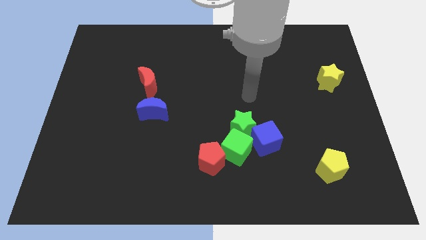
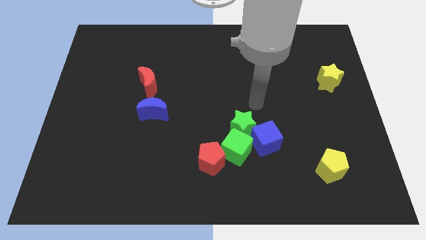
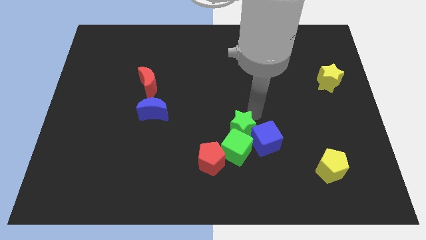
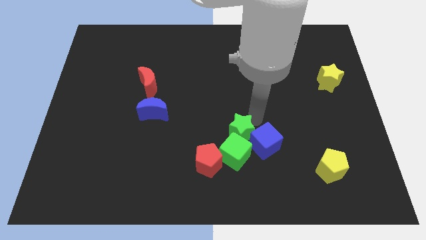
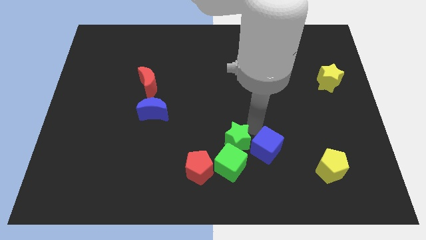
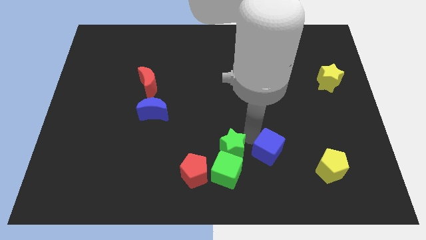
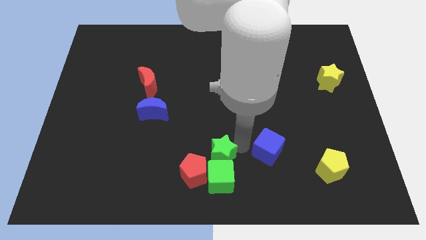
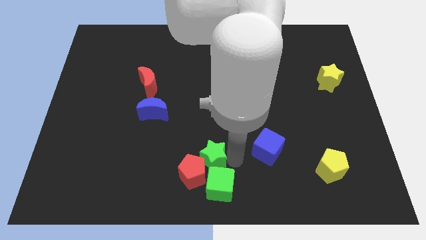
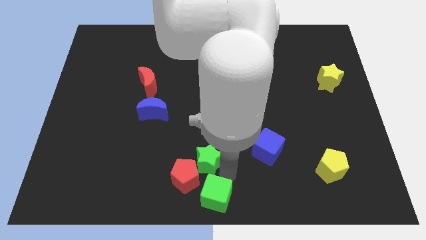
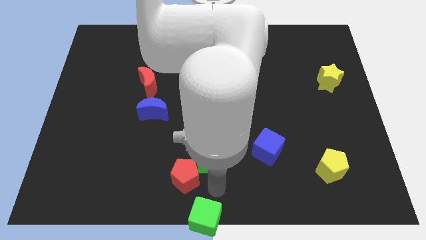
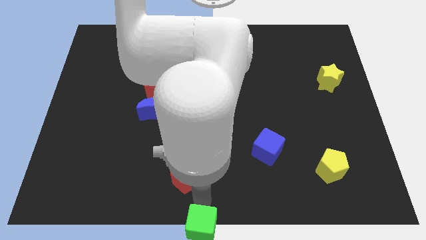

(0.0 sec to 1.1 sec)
move the red pentagon away from the green cube

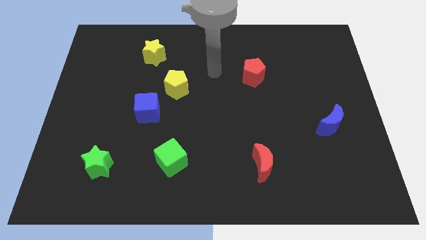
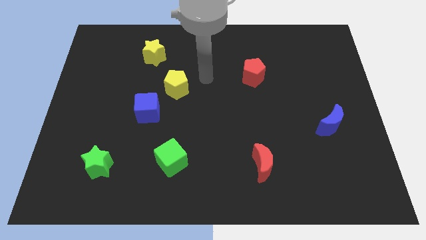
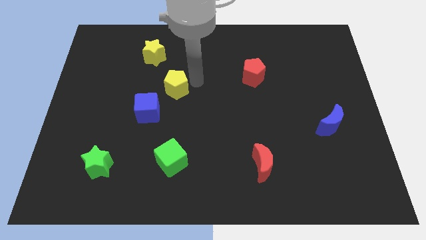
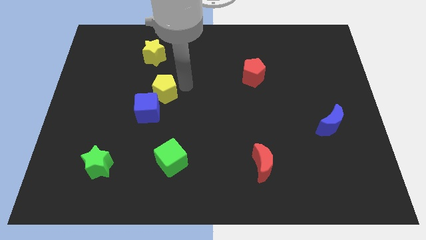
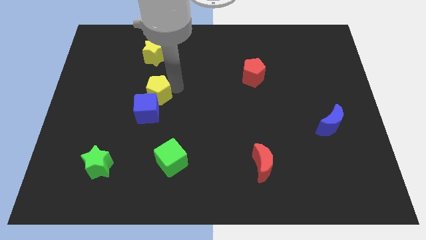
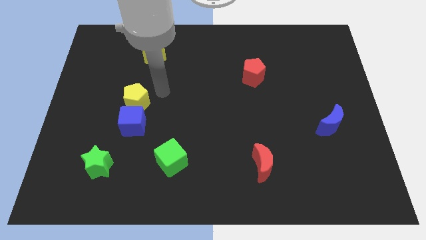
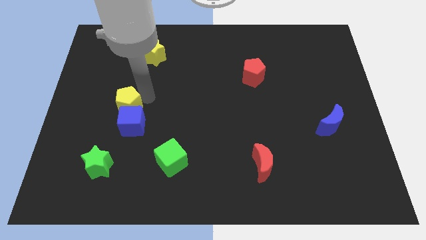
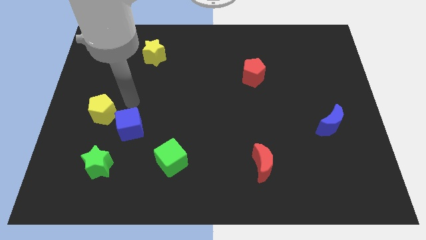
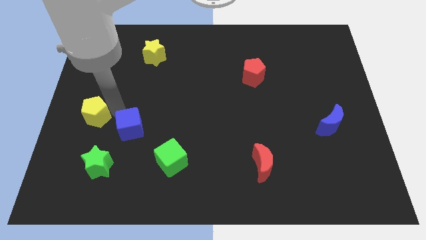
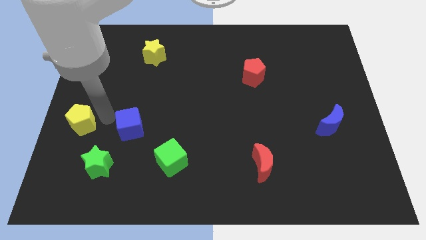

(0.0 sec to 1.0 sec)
separate the blue cube from the yellow pentagon

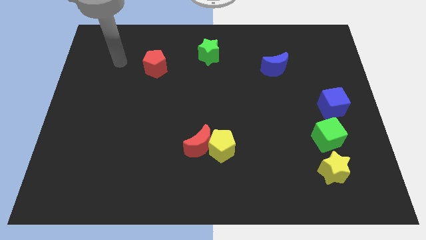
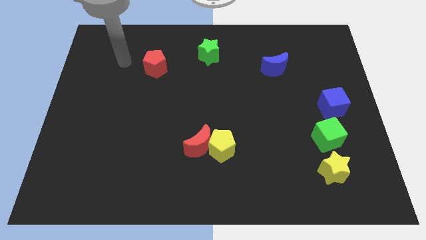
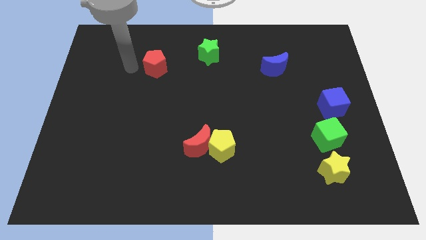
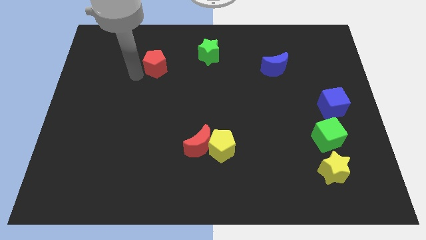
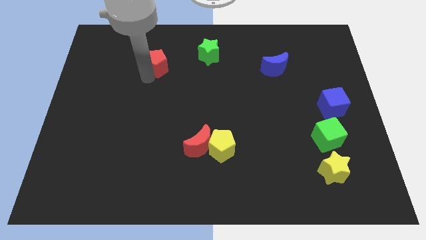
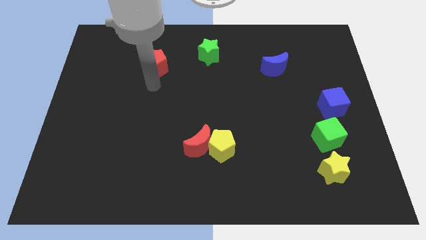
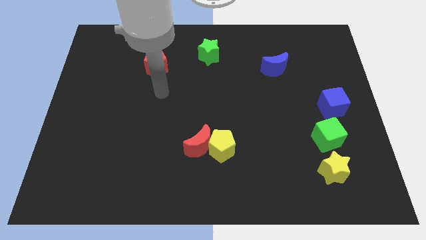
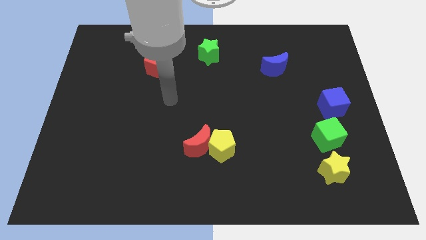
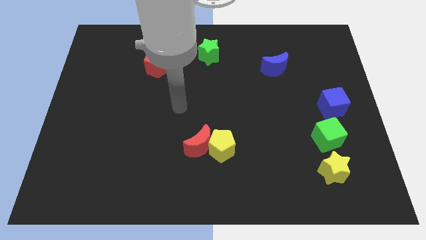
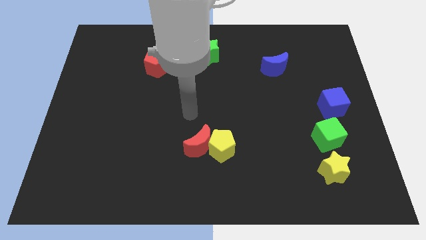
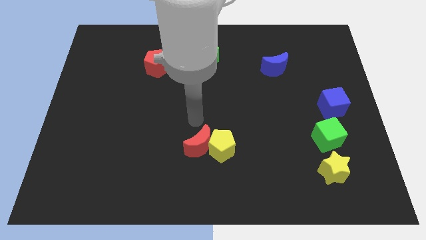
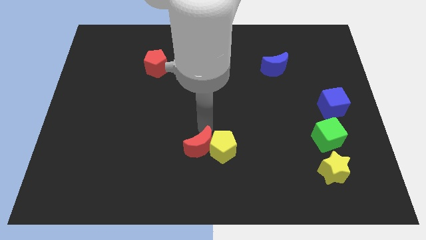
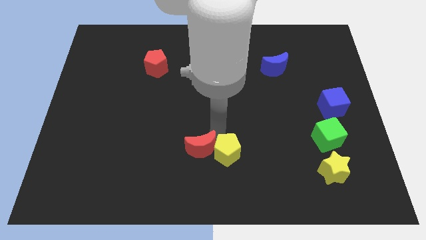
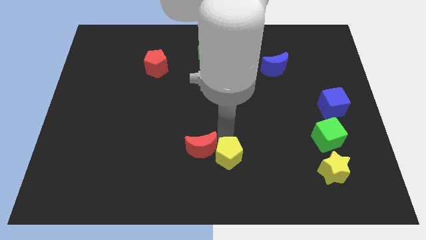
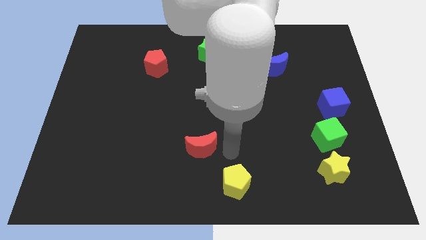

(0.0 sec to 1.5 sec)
move the red moon away from the yellow pentagon

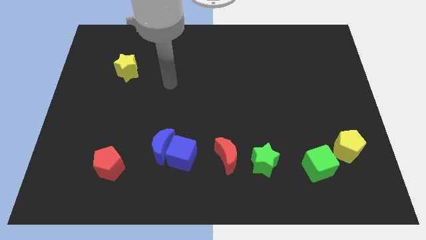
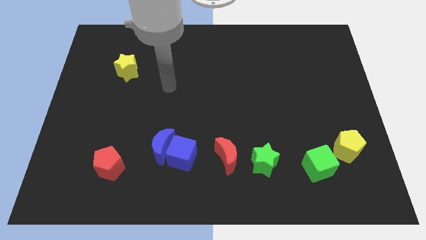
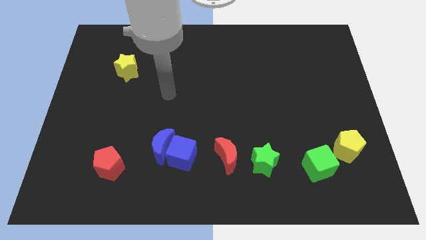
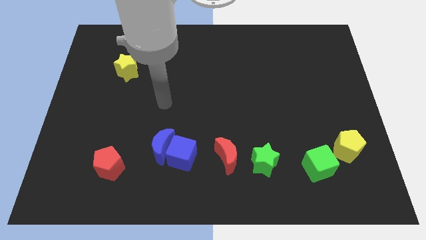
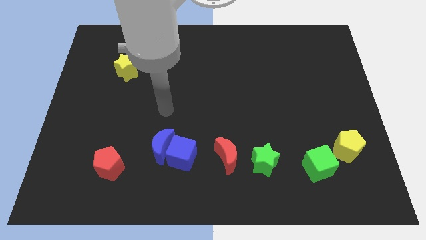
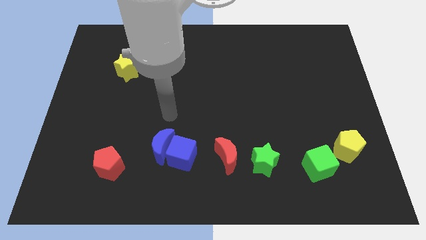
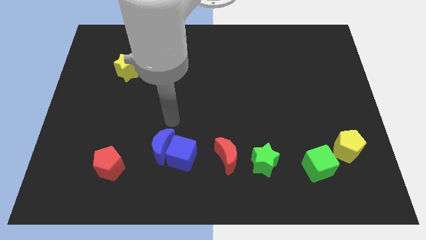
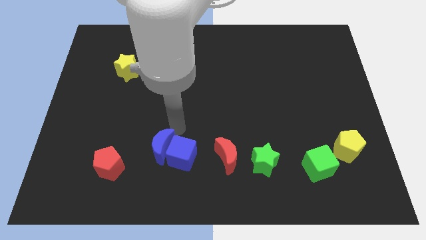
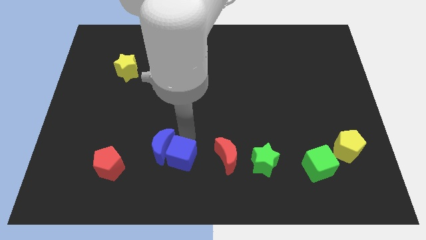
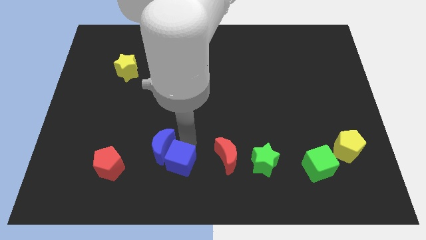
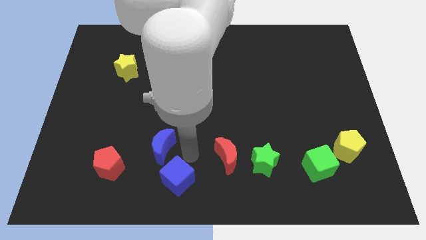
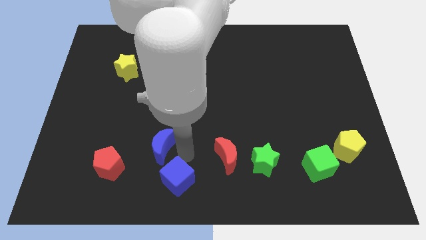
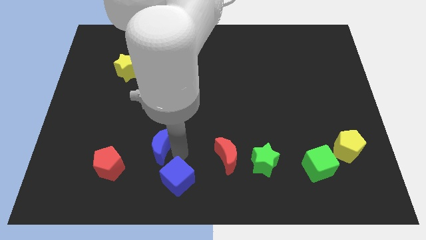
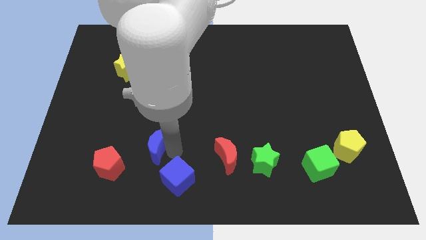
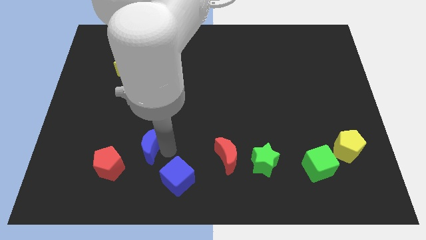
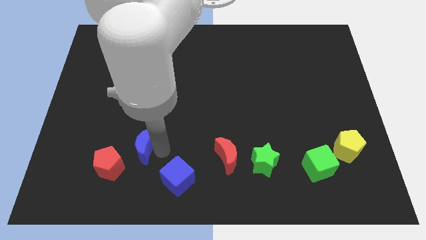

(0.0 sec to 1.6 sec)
pull the blue moon apart from the blue cube

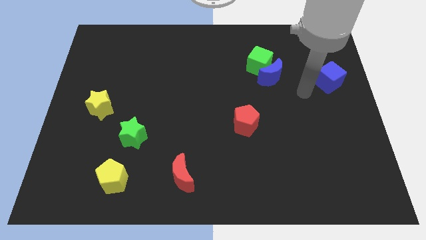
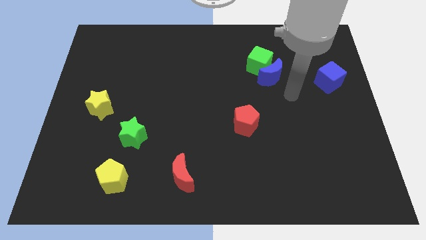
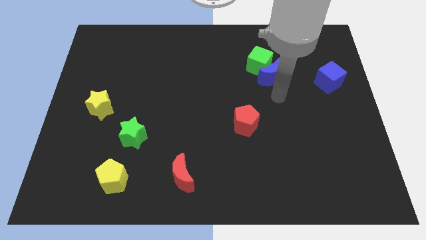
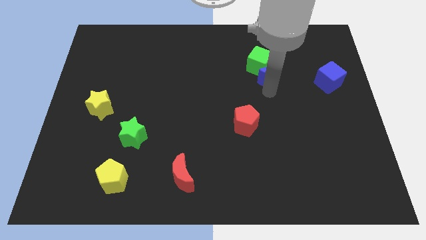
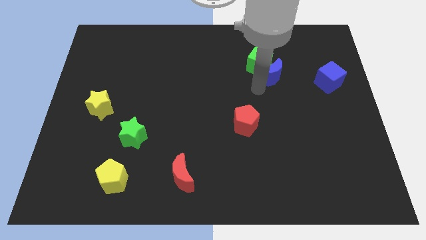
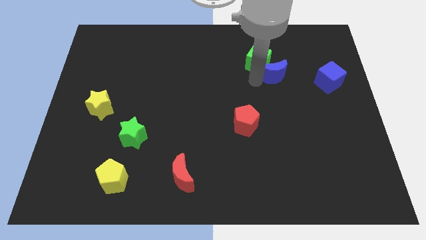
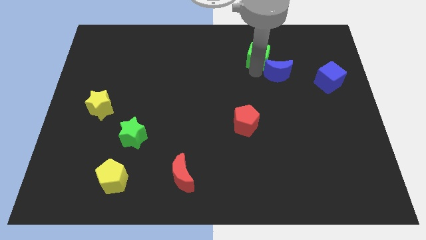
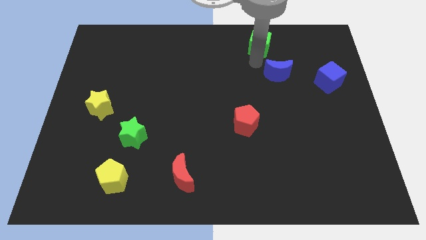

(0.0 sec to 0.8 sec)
move the blue moon away from the green cube

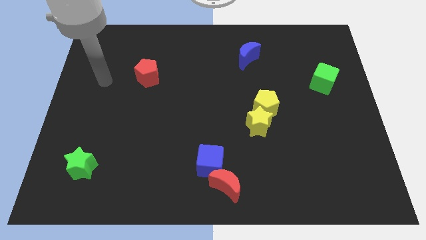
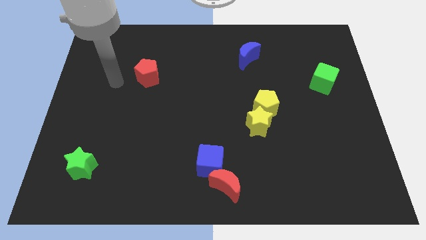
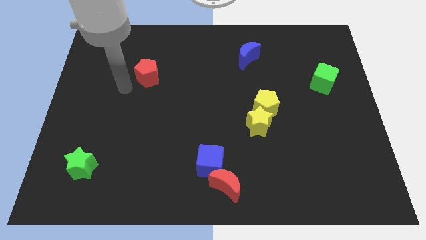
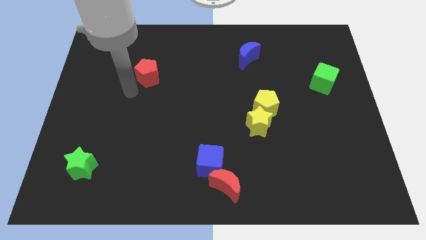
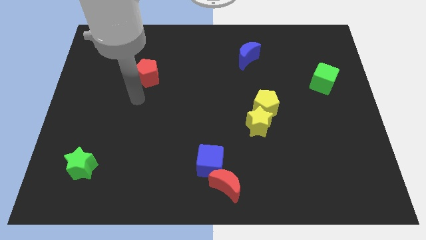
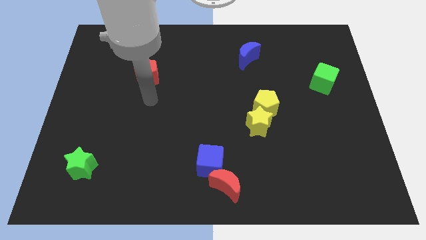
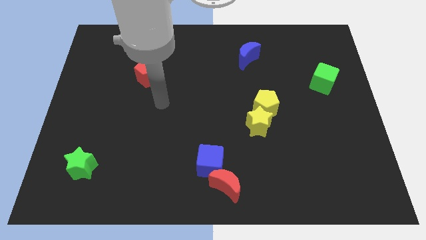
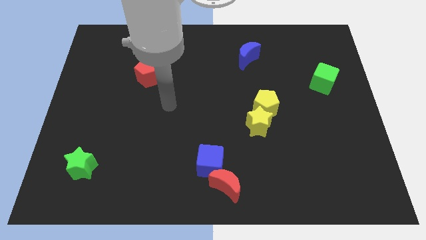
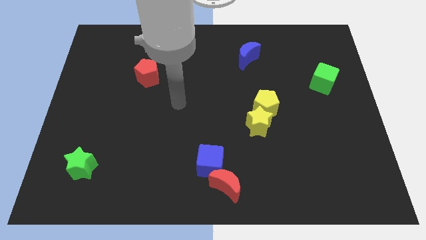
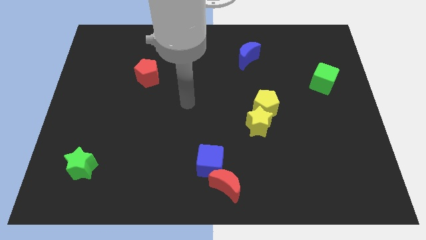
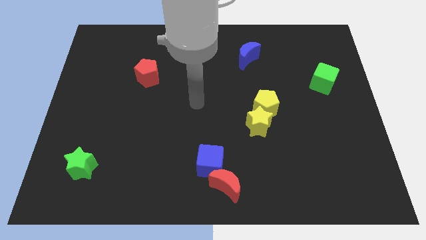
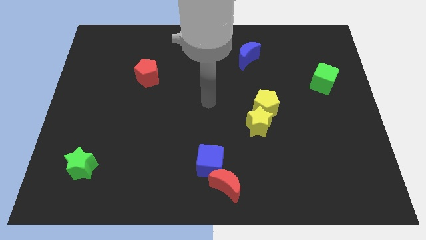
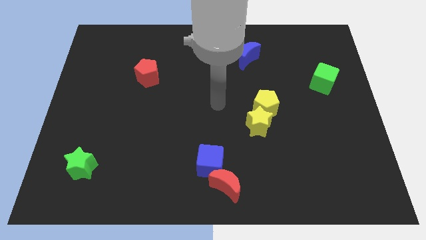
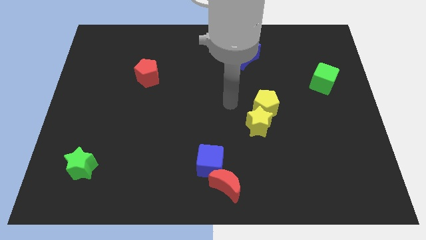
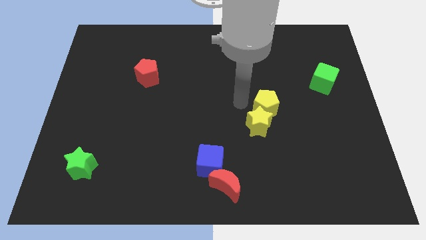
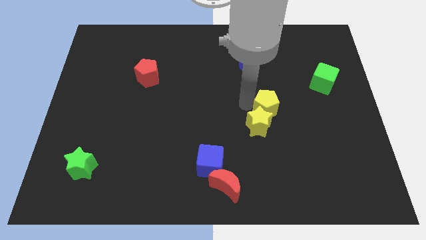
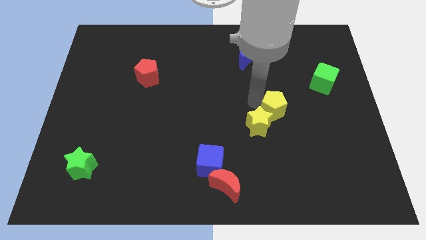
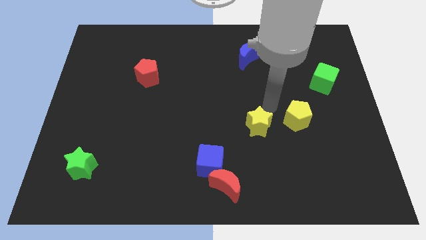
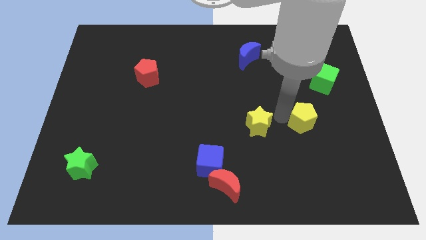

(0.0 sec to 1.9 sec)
move the yellow star away from the yellow pentagon

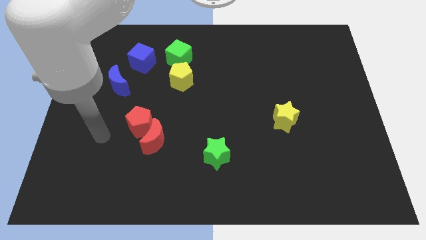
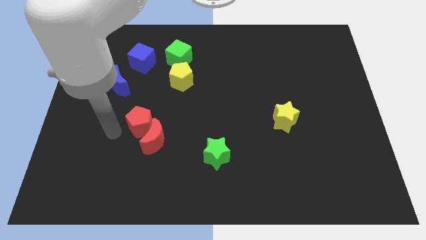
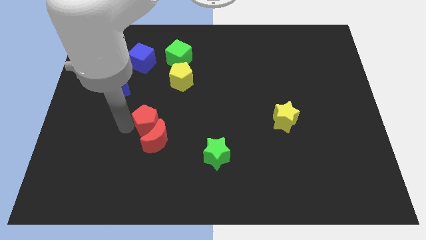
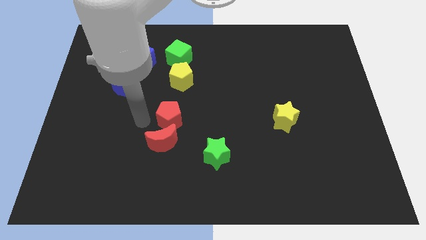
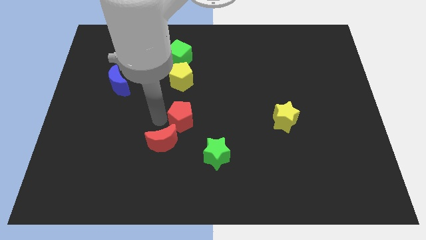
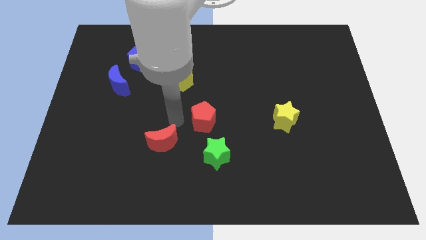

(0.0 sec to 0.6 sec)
pull the red moon apart from the red pentagon

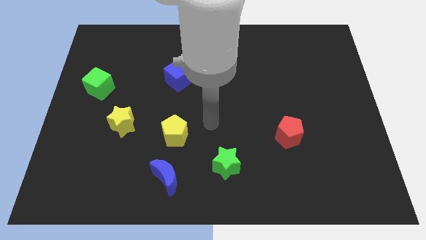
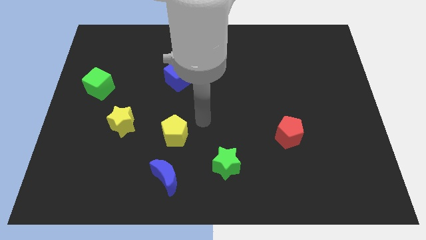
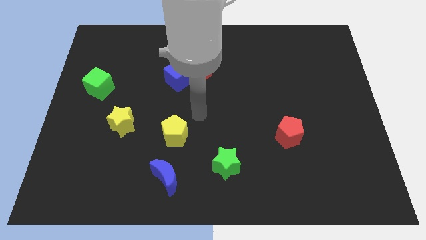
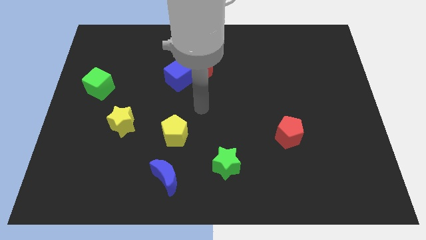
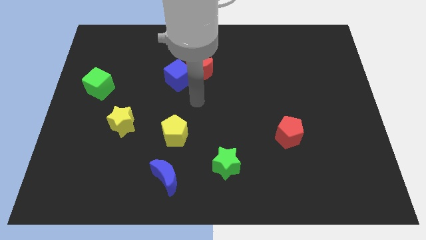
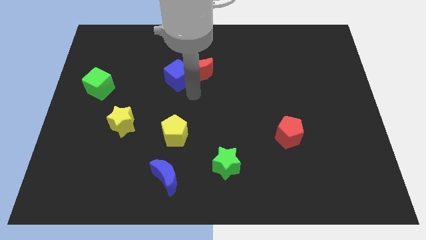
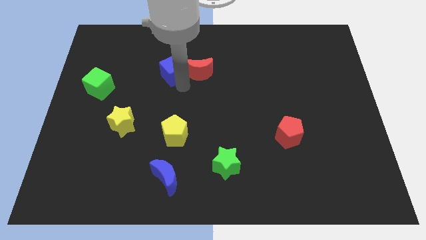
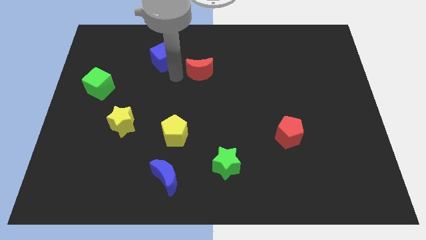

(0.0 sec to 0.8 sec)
separate the red moon from the blue cube
